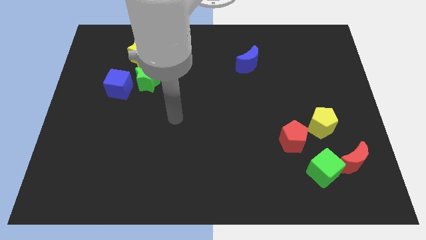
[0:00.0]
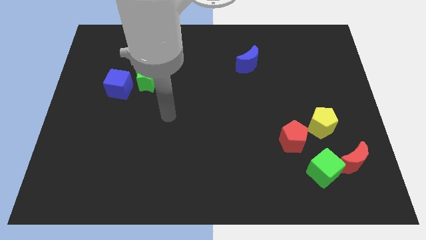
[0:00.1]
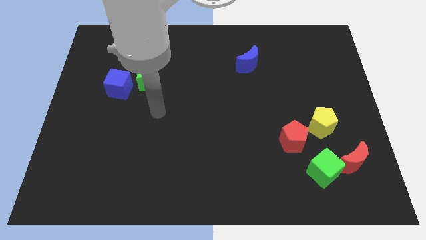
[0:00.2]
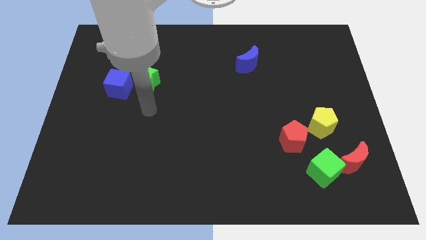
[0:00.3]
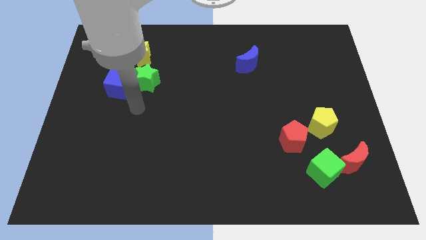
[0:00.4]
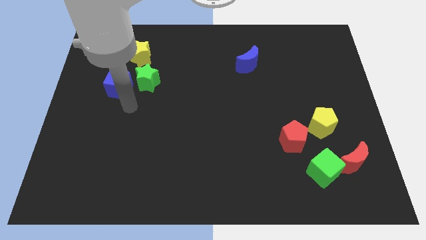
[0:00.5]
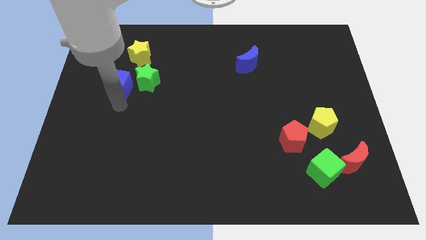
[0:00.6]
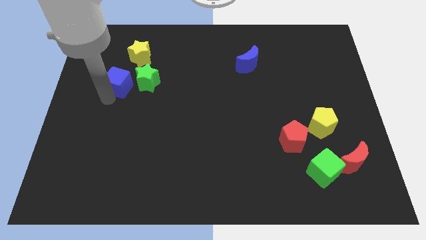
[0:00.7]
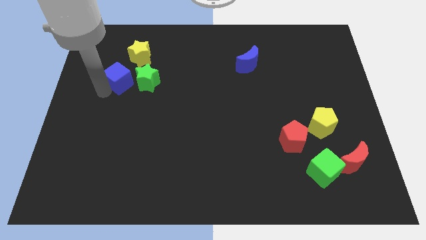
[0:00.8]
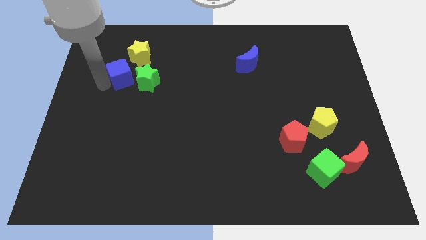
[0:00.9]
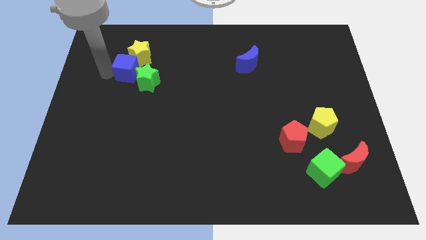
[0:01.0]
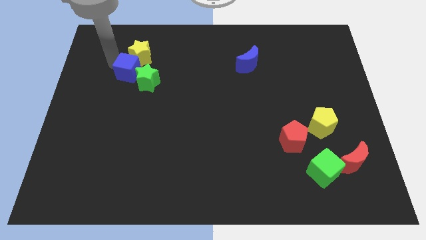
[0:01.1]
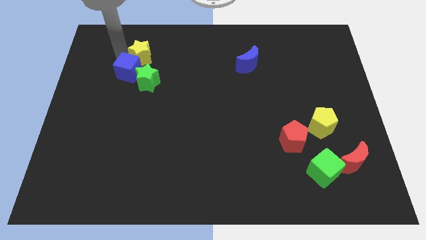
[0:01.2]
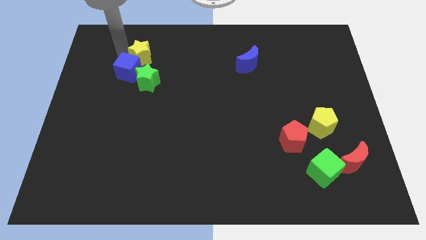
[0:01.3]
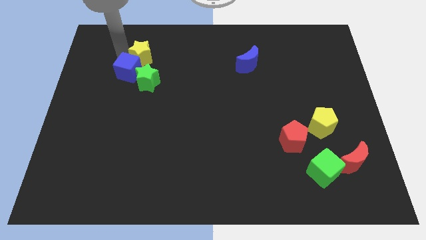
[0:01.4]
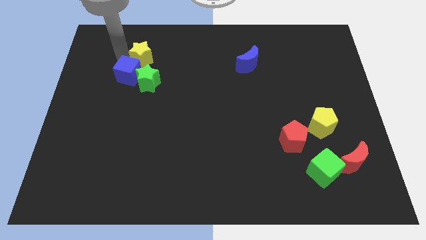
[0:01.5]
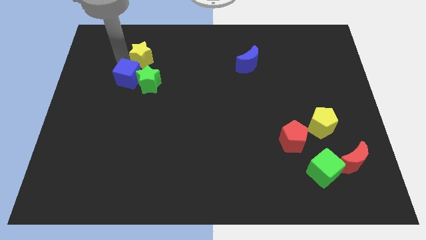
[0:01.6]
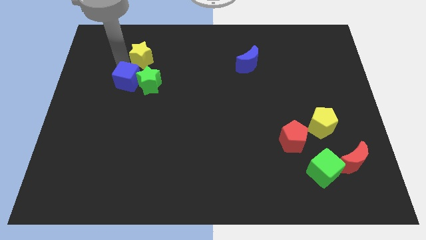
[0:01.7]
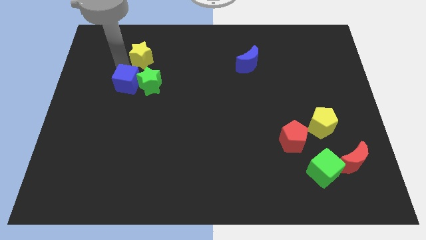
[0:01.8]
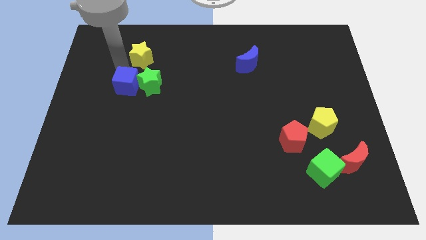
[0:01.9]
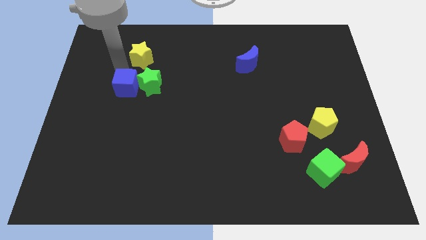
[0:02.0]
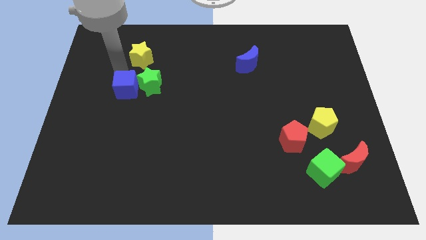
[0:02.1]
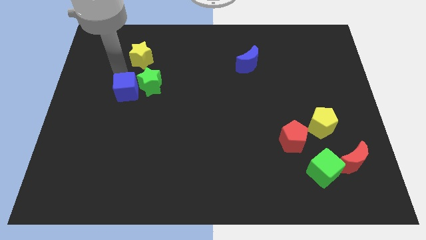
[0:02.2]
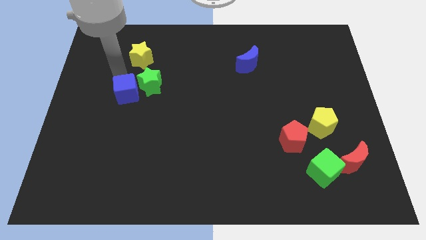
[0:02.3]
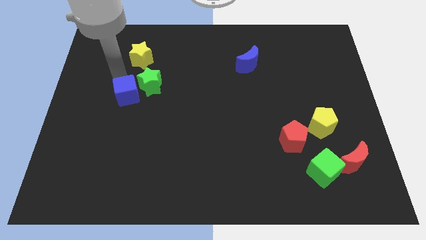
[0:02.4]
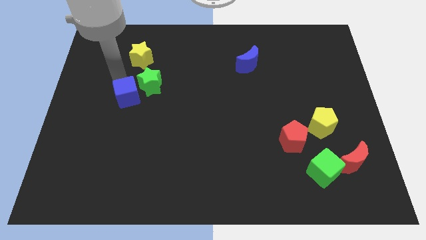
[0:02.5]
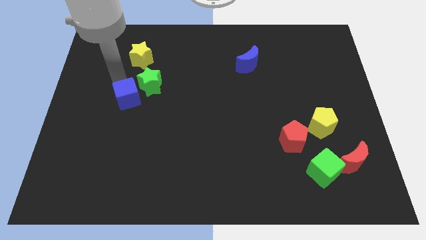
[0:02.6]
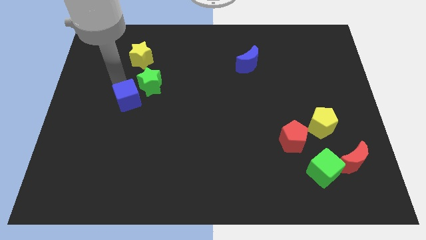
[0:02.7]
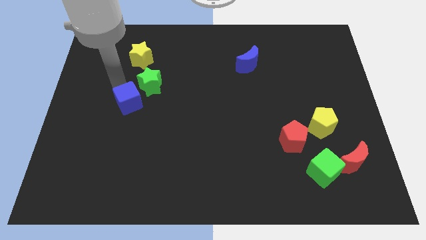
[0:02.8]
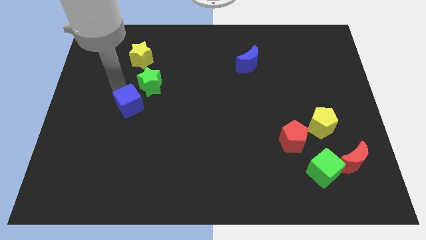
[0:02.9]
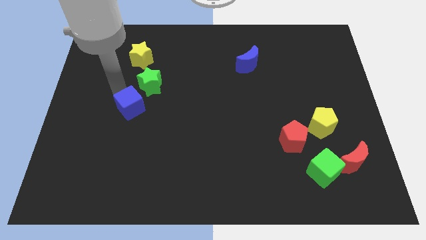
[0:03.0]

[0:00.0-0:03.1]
move the blue cube down and to the right a little

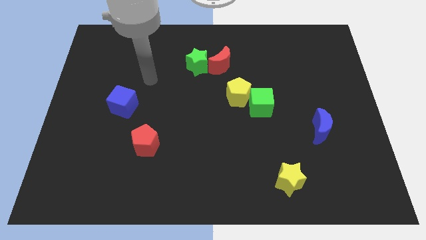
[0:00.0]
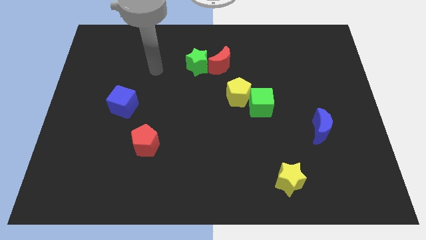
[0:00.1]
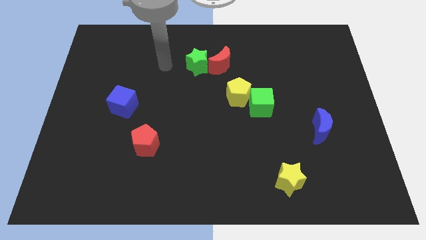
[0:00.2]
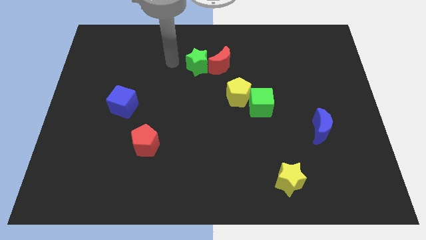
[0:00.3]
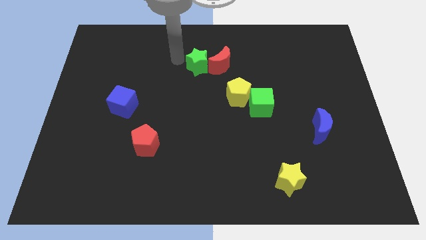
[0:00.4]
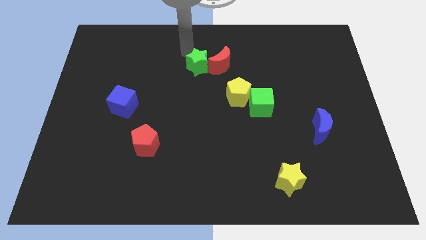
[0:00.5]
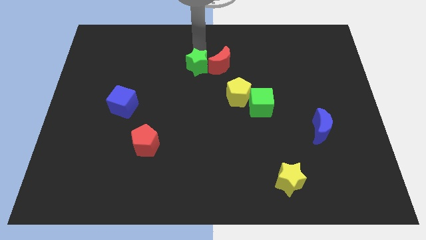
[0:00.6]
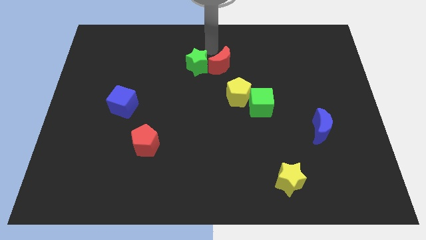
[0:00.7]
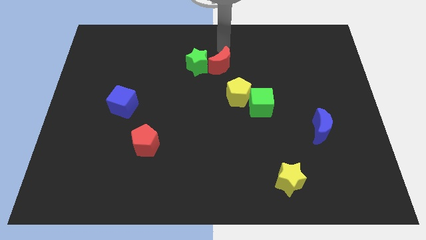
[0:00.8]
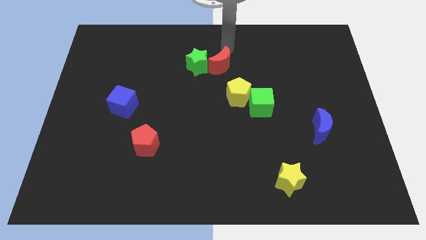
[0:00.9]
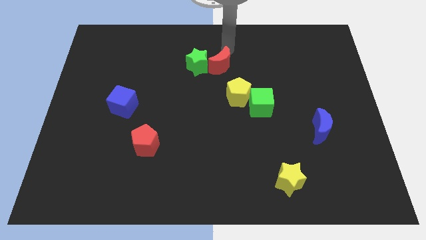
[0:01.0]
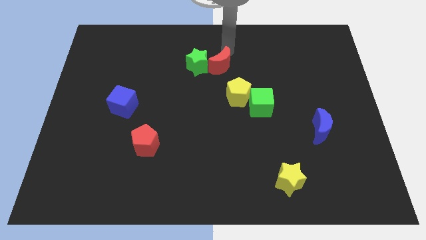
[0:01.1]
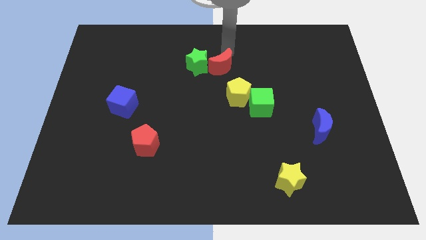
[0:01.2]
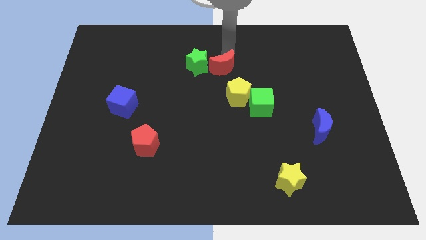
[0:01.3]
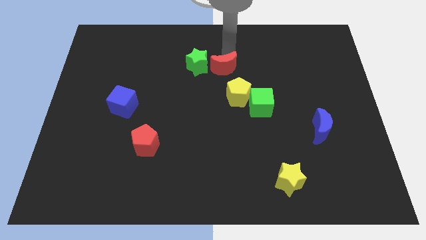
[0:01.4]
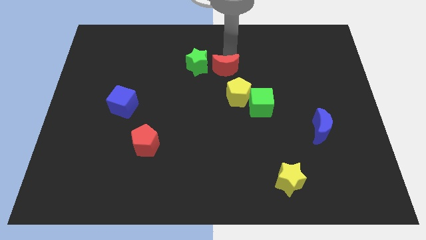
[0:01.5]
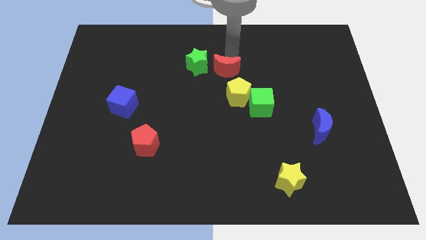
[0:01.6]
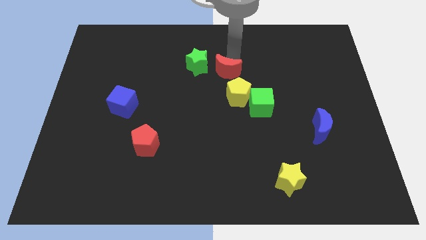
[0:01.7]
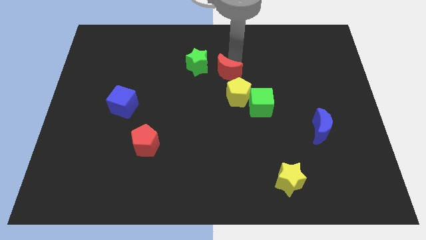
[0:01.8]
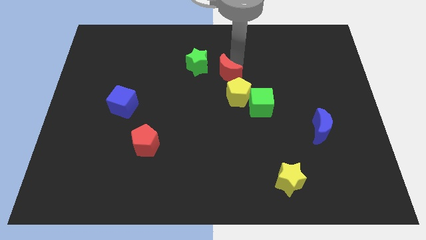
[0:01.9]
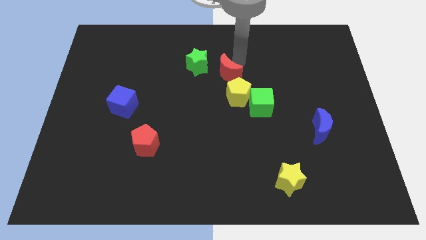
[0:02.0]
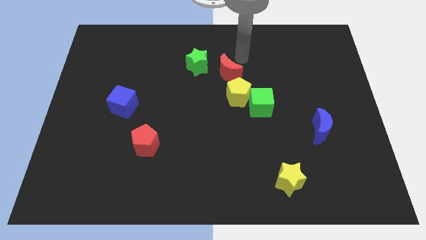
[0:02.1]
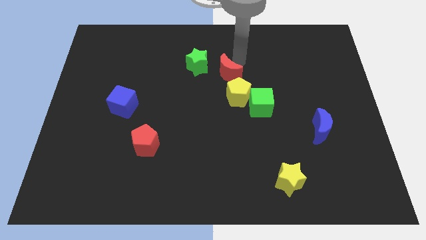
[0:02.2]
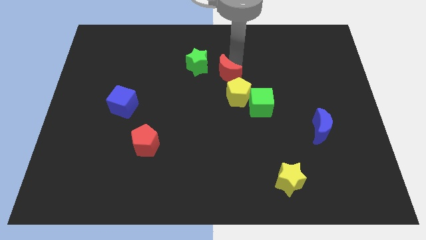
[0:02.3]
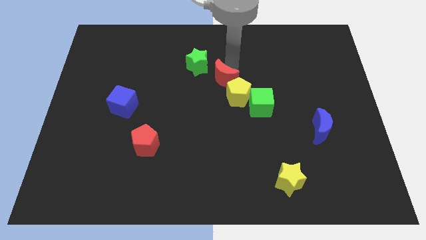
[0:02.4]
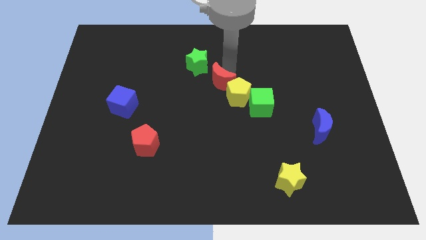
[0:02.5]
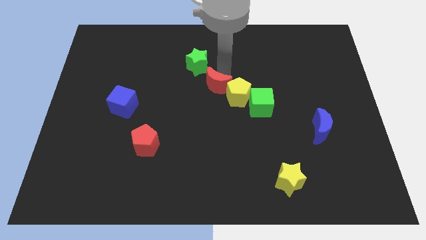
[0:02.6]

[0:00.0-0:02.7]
move the red moon a little downwards

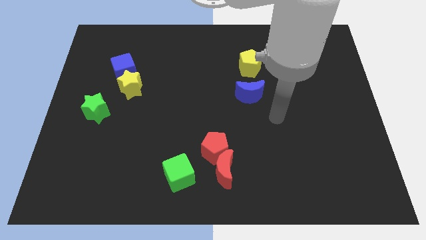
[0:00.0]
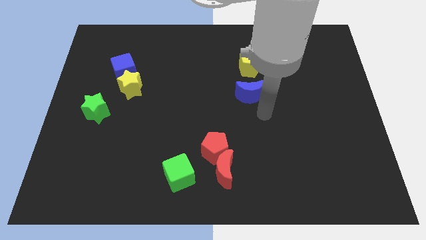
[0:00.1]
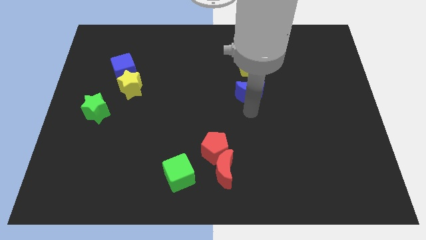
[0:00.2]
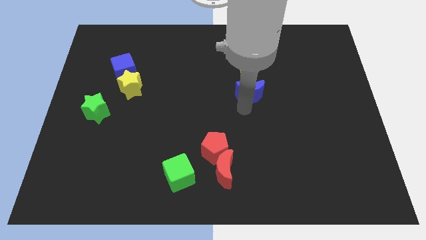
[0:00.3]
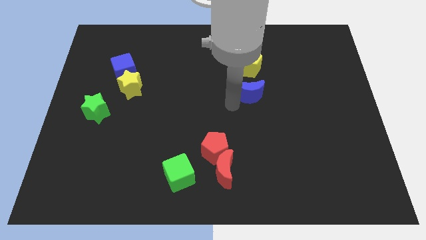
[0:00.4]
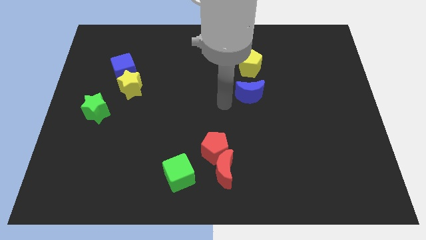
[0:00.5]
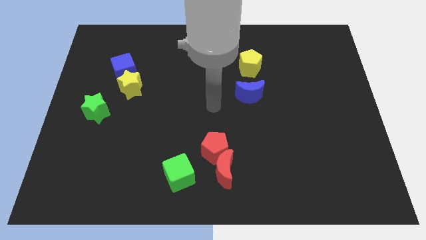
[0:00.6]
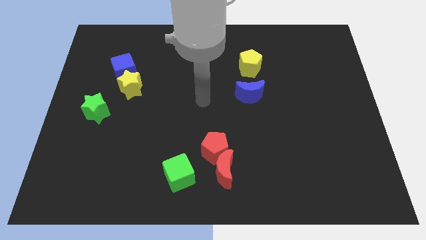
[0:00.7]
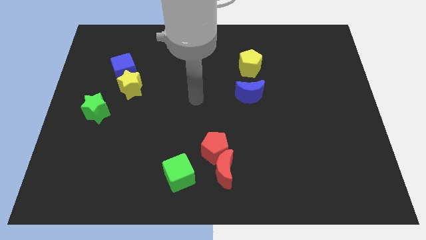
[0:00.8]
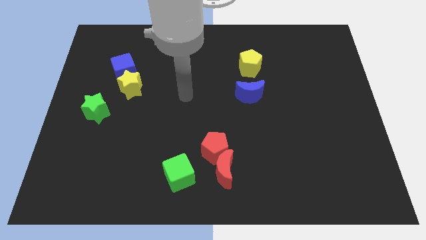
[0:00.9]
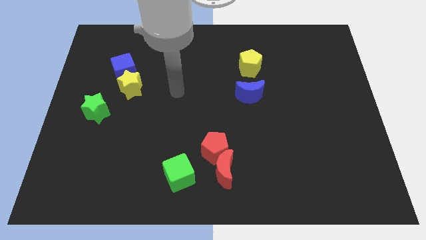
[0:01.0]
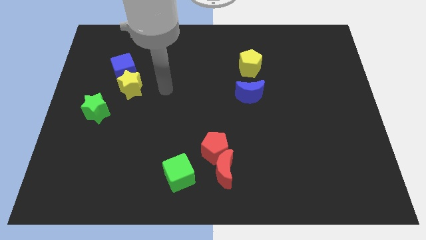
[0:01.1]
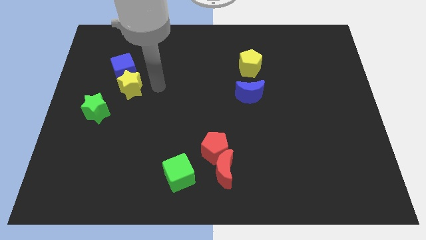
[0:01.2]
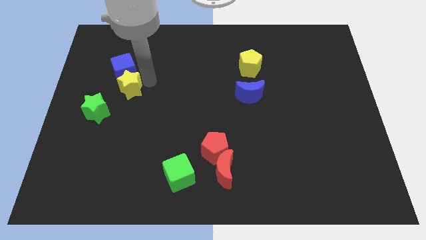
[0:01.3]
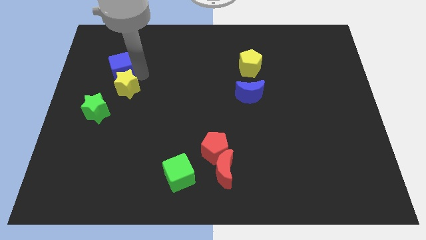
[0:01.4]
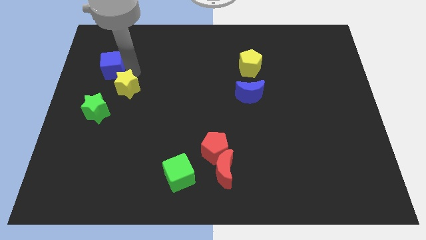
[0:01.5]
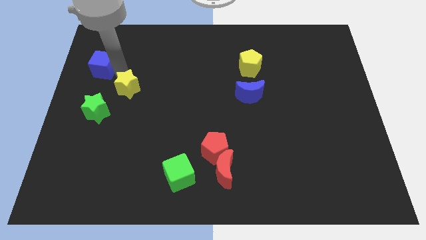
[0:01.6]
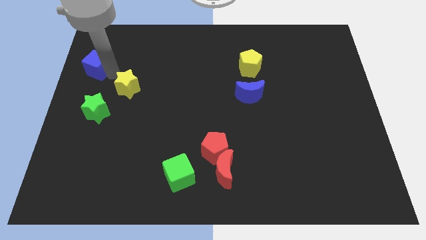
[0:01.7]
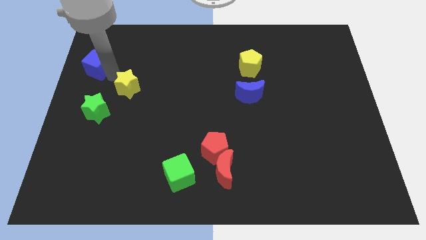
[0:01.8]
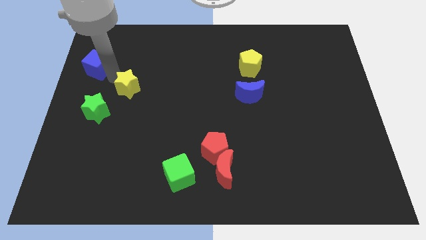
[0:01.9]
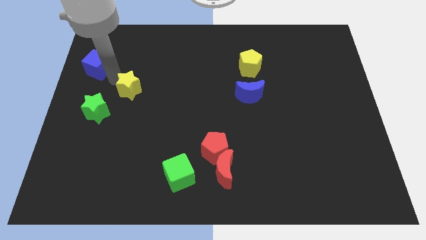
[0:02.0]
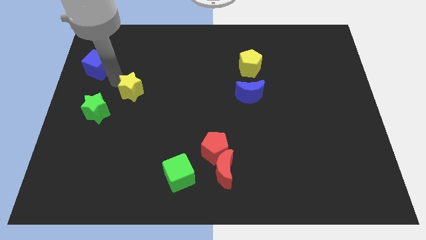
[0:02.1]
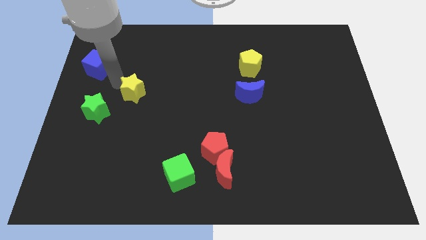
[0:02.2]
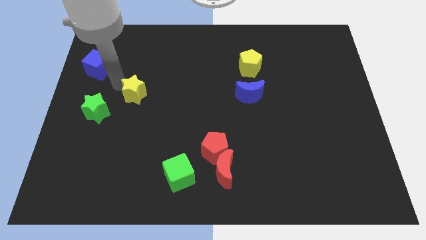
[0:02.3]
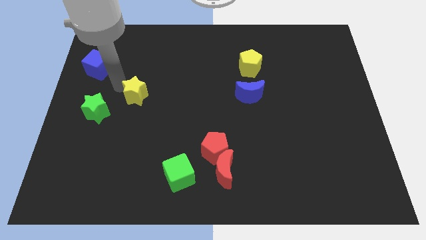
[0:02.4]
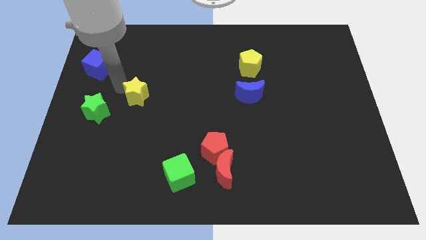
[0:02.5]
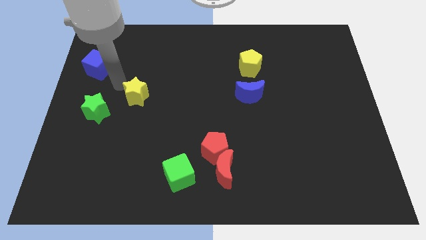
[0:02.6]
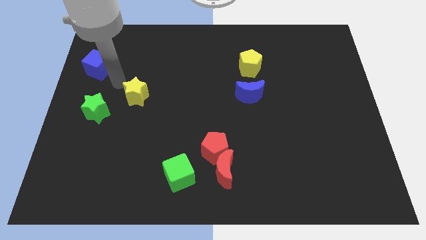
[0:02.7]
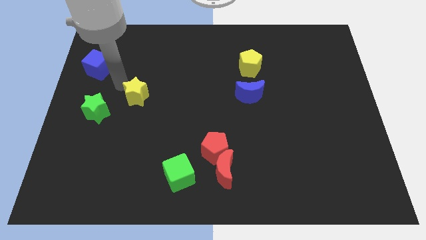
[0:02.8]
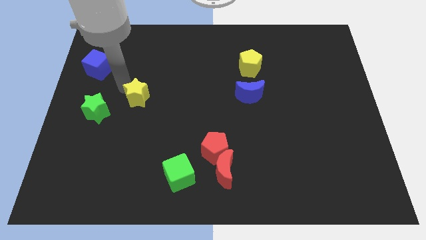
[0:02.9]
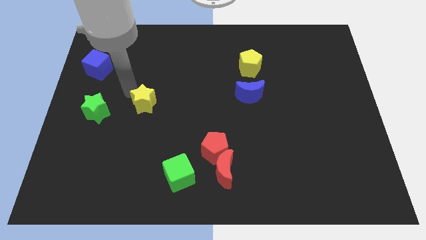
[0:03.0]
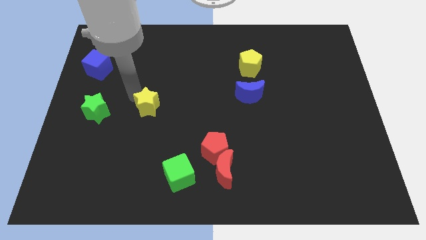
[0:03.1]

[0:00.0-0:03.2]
slide the yellow star downwards and to the right slightly
